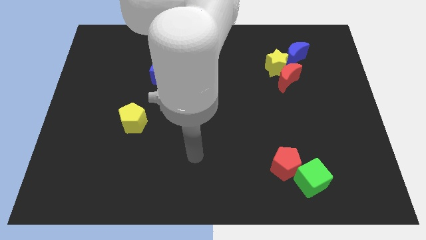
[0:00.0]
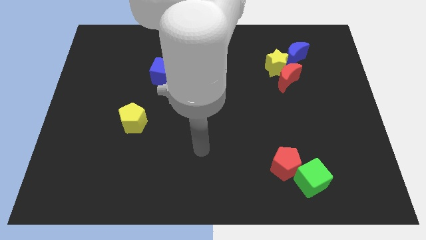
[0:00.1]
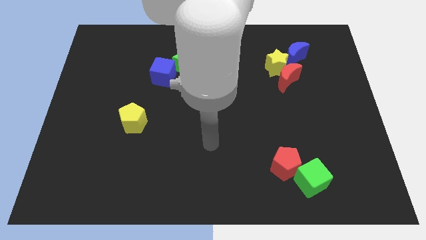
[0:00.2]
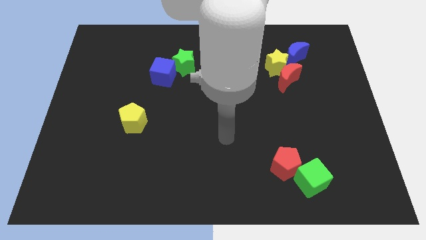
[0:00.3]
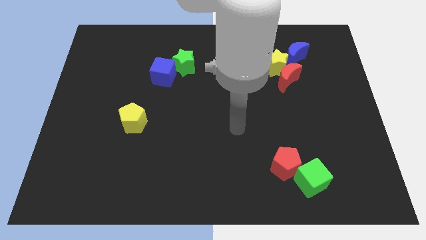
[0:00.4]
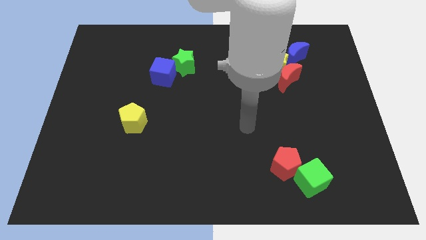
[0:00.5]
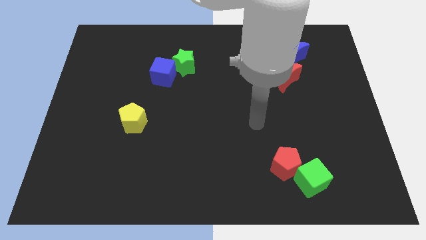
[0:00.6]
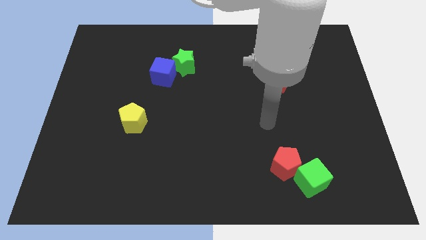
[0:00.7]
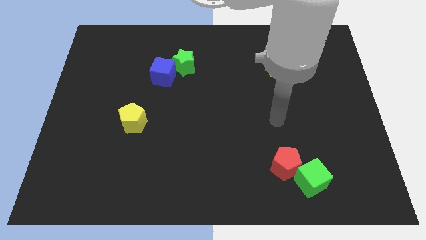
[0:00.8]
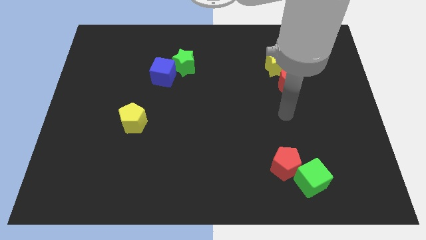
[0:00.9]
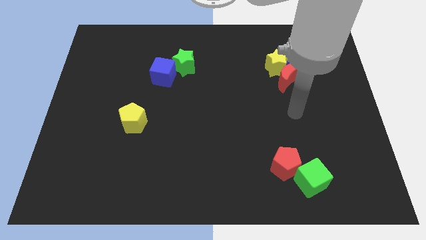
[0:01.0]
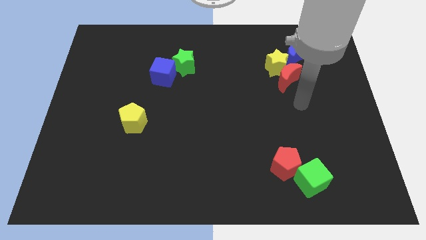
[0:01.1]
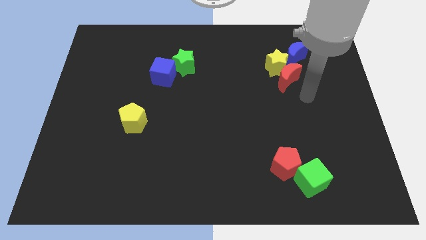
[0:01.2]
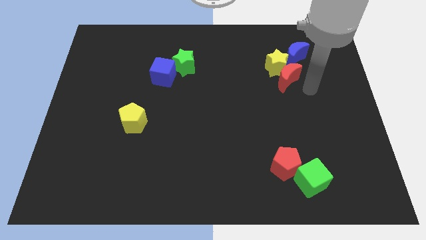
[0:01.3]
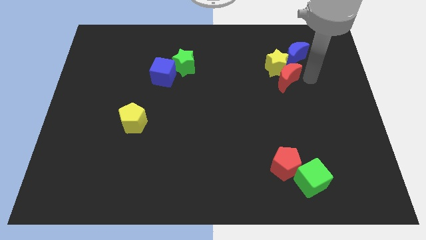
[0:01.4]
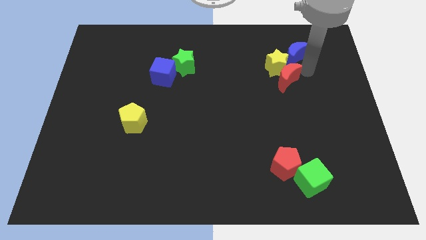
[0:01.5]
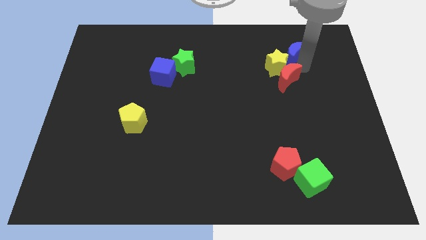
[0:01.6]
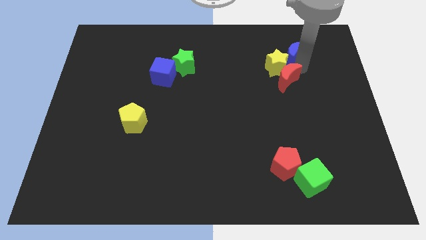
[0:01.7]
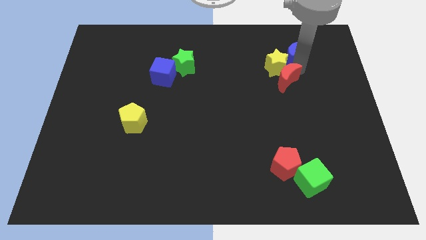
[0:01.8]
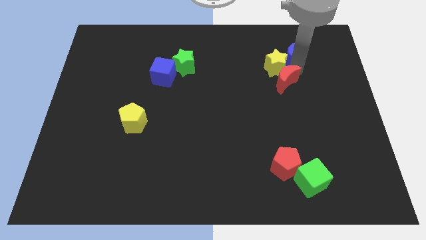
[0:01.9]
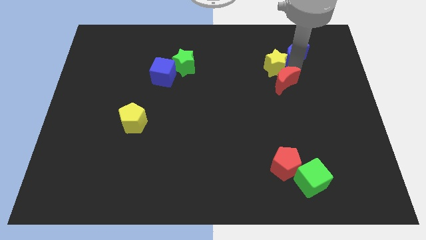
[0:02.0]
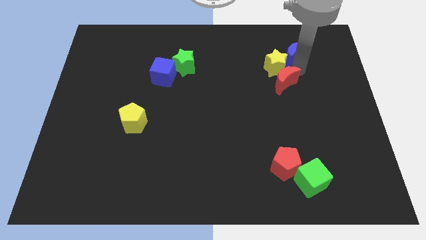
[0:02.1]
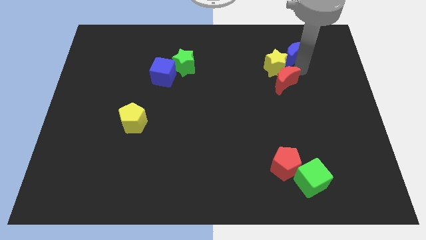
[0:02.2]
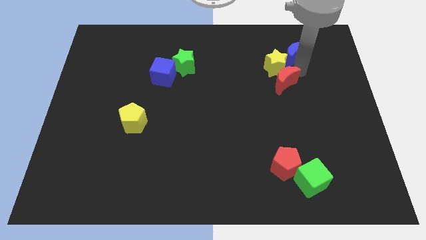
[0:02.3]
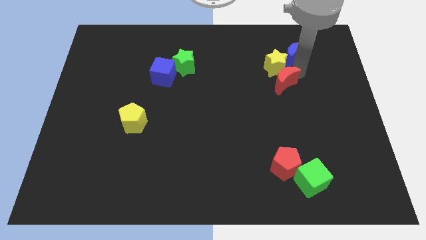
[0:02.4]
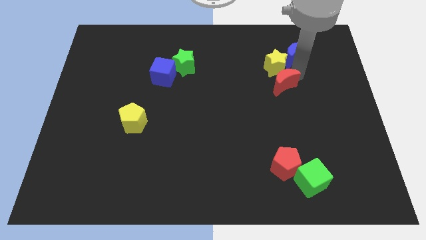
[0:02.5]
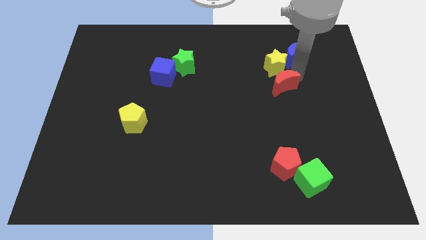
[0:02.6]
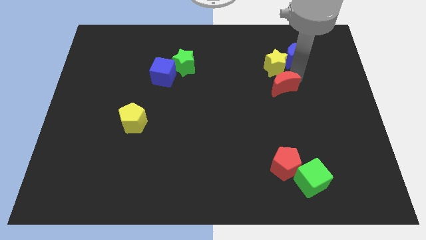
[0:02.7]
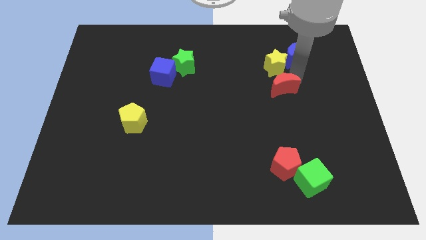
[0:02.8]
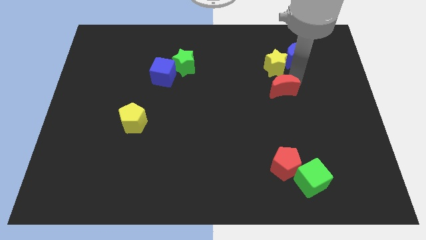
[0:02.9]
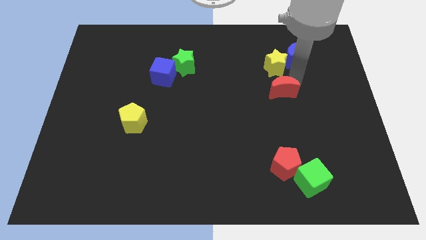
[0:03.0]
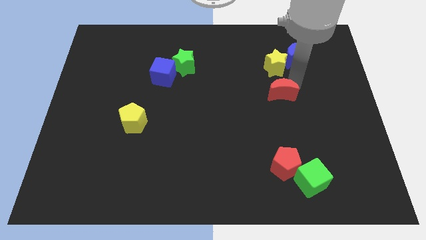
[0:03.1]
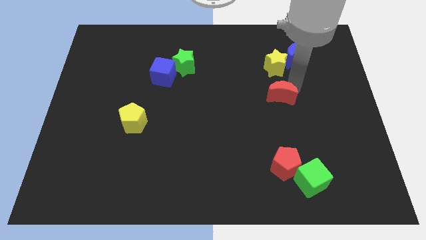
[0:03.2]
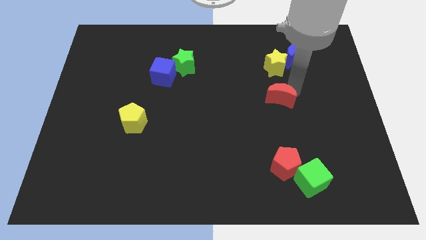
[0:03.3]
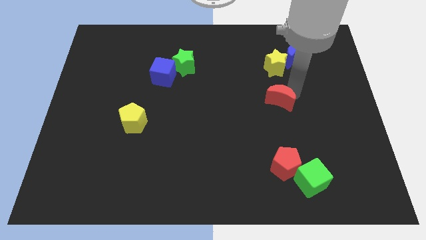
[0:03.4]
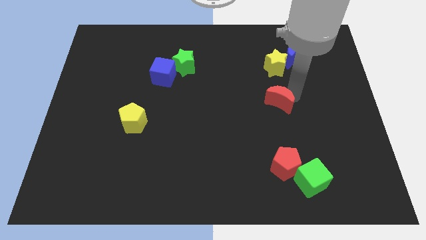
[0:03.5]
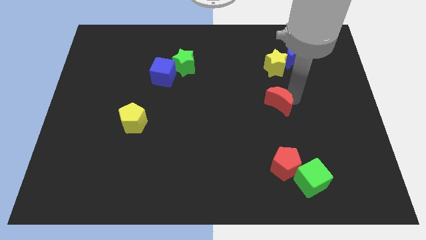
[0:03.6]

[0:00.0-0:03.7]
slide the red moon a little bit down and to the left diagonally

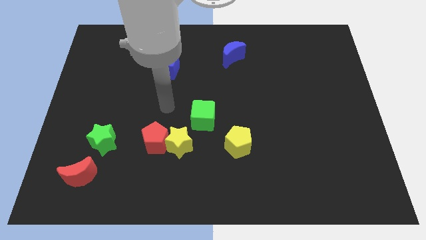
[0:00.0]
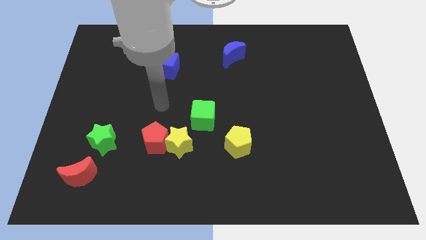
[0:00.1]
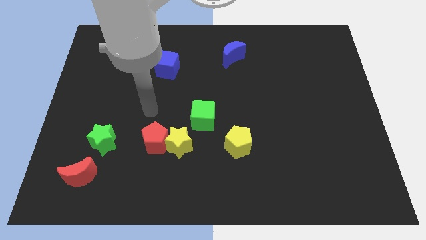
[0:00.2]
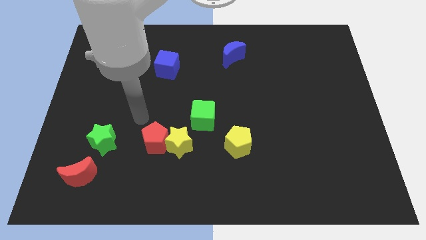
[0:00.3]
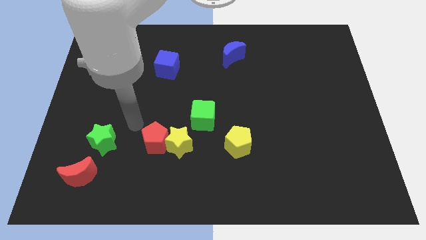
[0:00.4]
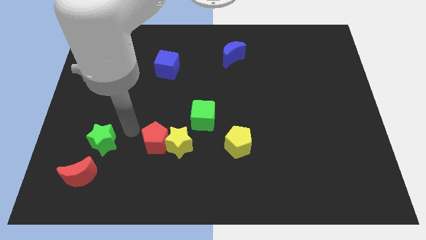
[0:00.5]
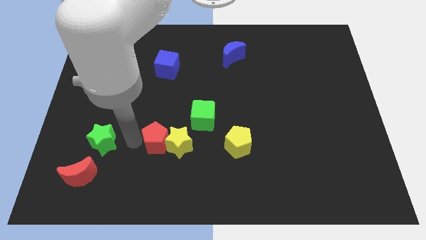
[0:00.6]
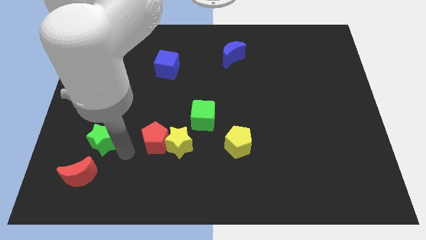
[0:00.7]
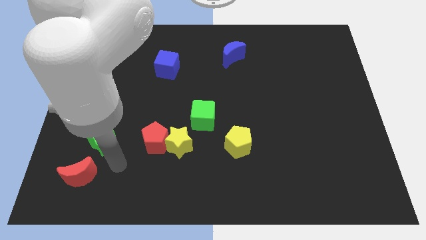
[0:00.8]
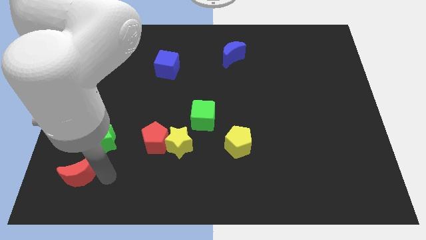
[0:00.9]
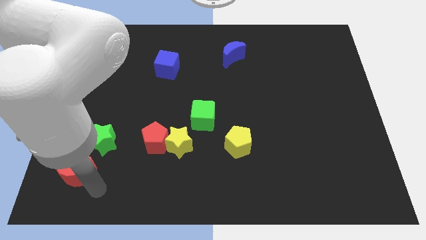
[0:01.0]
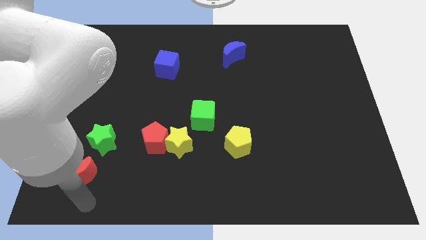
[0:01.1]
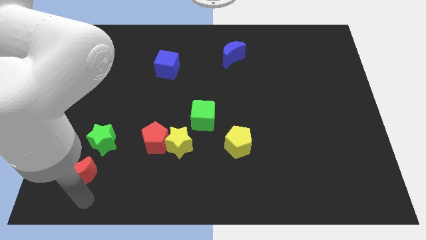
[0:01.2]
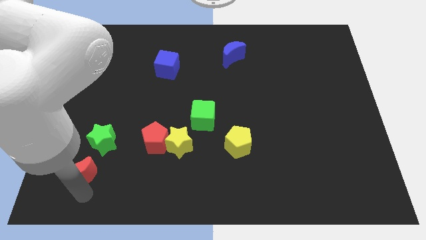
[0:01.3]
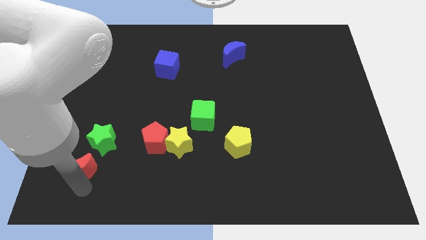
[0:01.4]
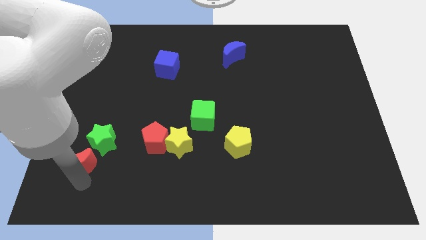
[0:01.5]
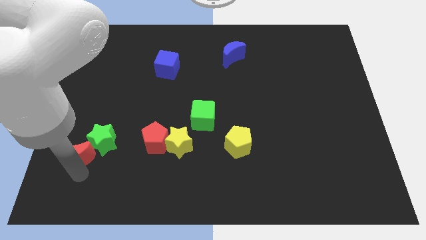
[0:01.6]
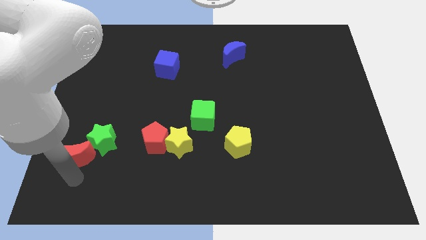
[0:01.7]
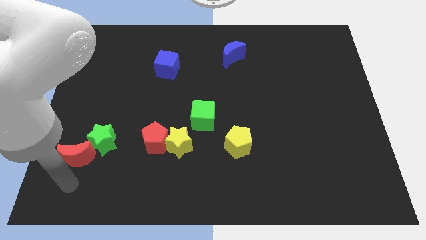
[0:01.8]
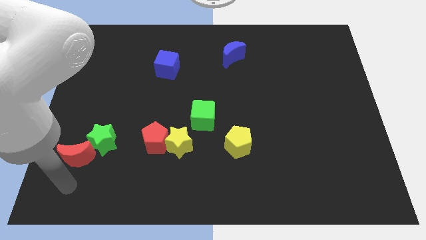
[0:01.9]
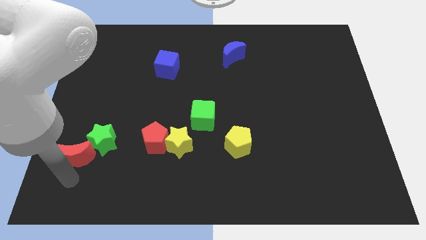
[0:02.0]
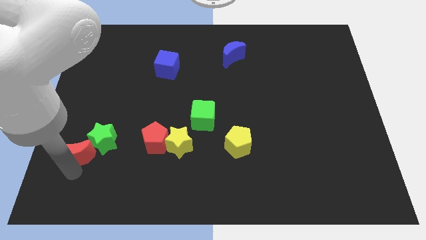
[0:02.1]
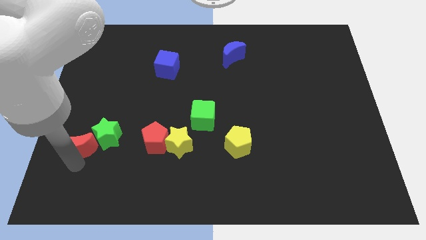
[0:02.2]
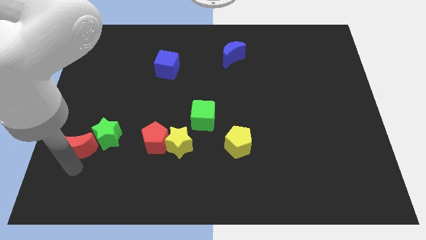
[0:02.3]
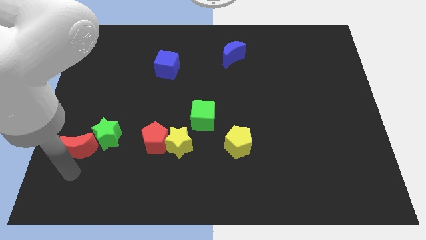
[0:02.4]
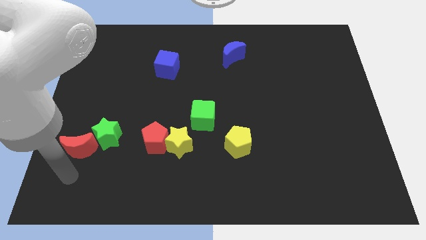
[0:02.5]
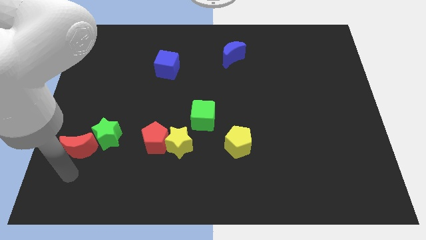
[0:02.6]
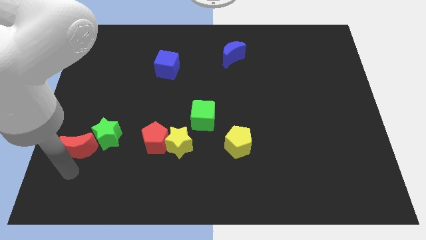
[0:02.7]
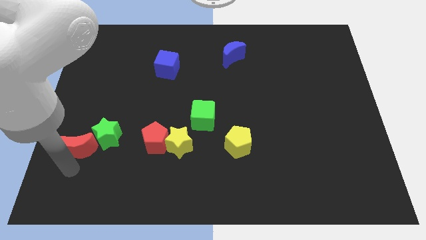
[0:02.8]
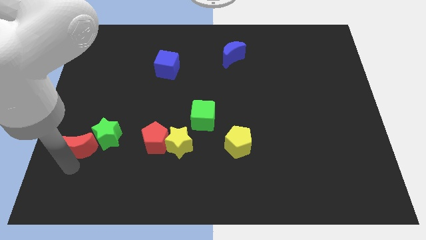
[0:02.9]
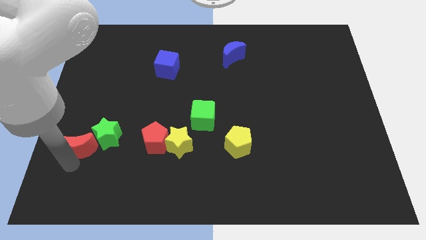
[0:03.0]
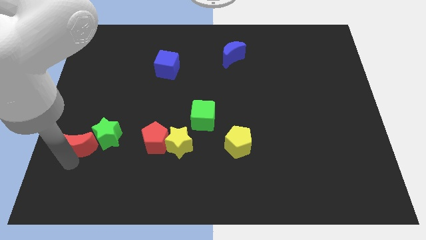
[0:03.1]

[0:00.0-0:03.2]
move the red moon a little bit upwards

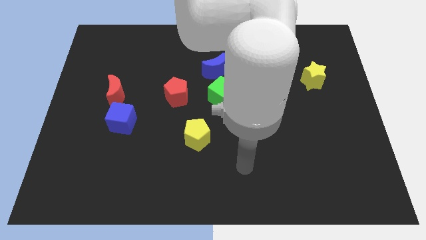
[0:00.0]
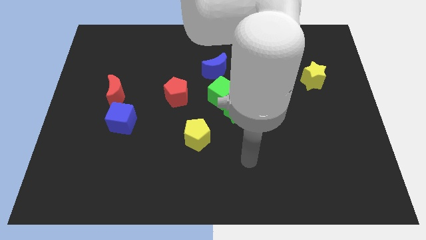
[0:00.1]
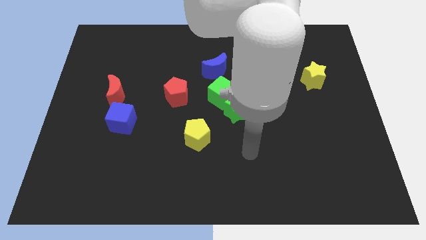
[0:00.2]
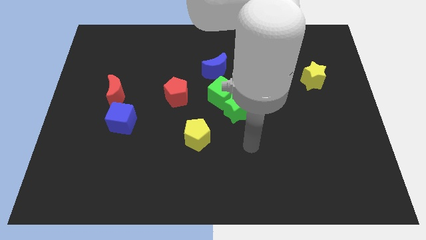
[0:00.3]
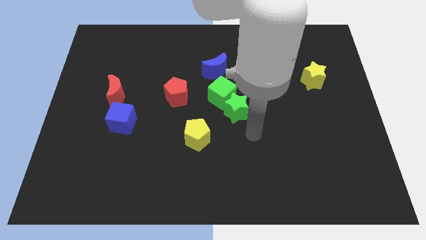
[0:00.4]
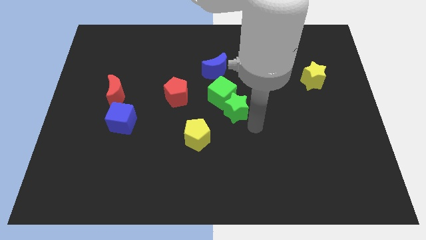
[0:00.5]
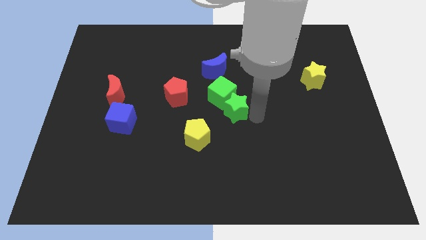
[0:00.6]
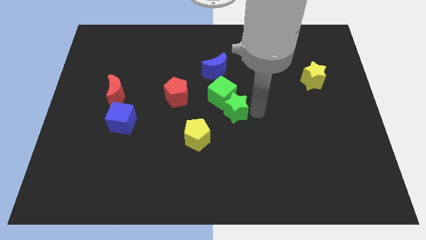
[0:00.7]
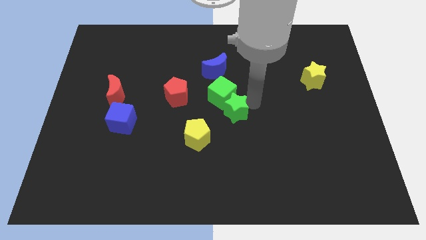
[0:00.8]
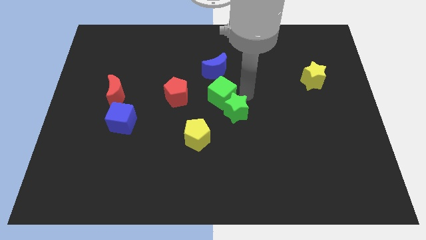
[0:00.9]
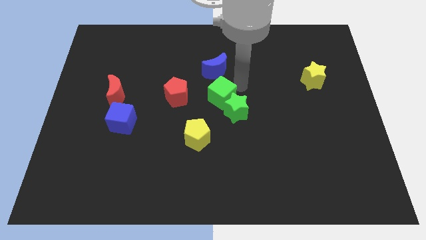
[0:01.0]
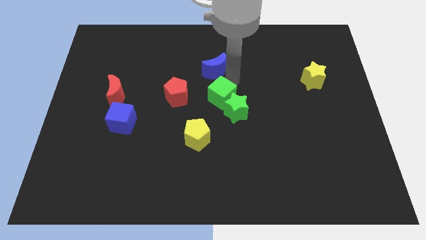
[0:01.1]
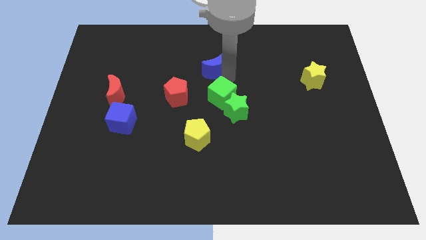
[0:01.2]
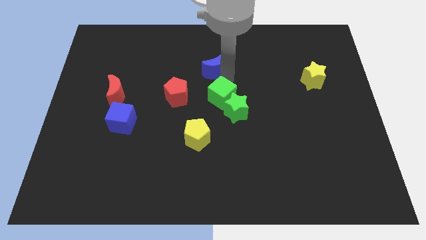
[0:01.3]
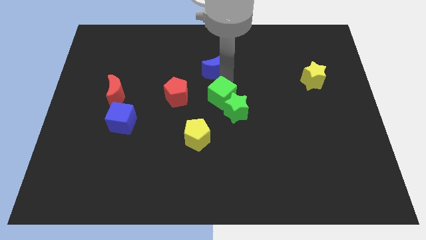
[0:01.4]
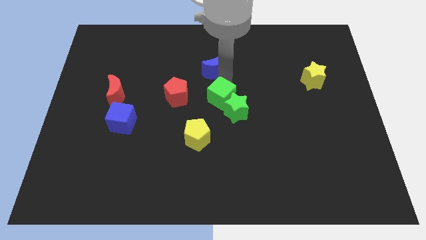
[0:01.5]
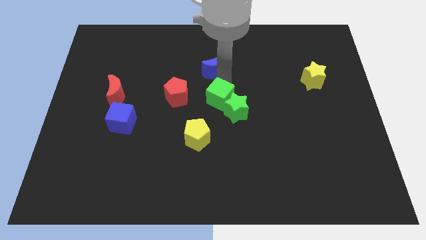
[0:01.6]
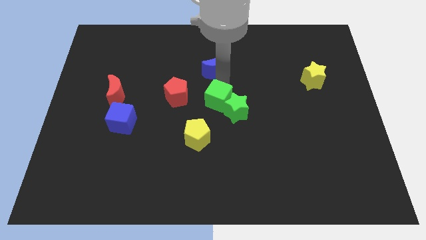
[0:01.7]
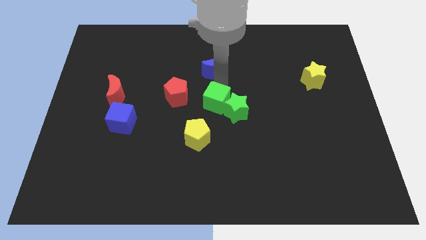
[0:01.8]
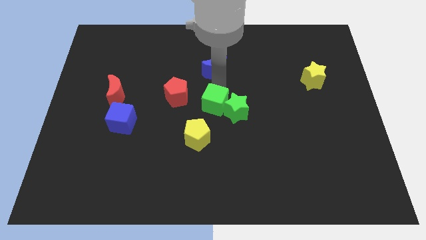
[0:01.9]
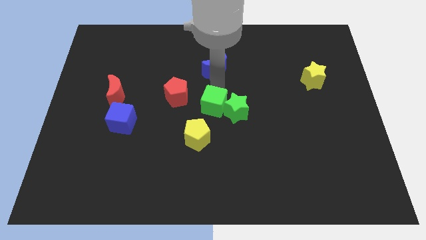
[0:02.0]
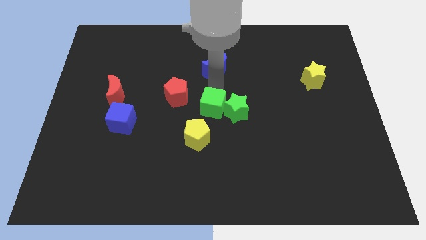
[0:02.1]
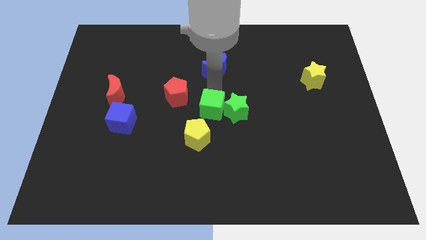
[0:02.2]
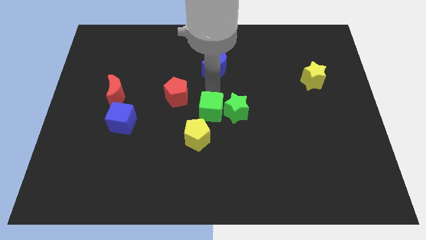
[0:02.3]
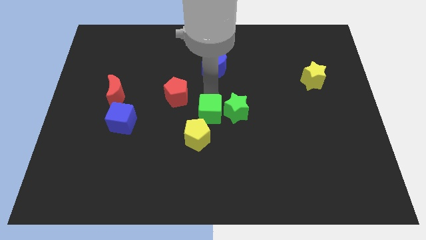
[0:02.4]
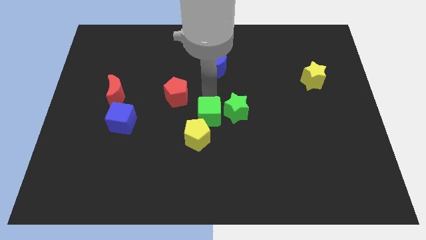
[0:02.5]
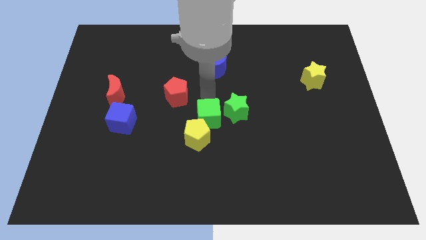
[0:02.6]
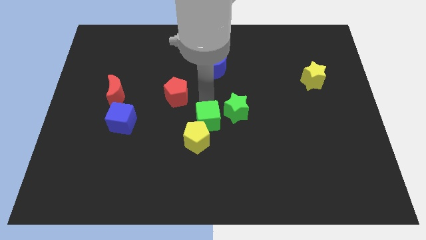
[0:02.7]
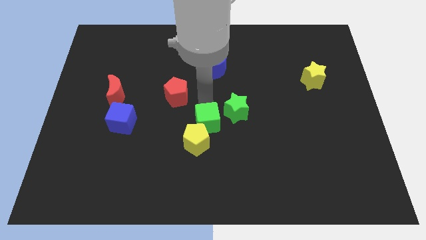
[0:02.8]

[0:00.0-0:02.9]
slide the green cube downwards a little bit
